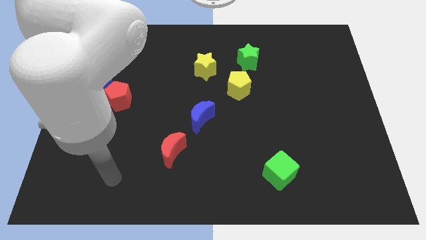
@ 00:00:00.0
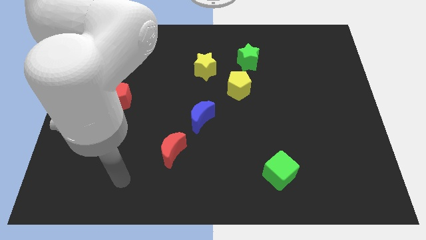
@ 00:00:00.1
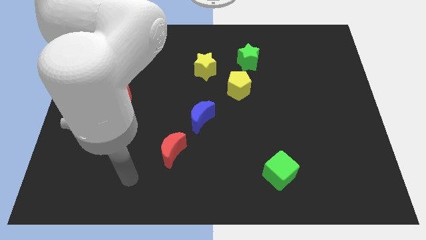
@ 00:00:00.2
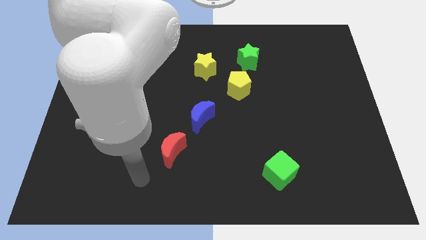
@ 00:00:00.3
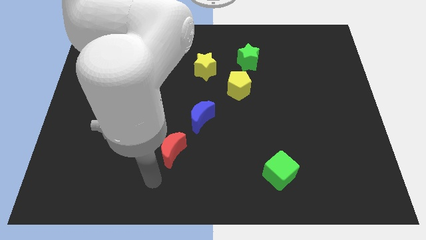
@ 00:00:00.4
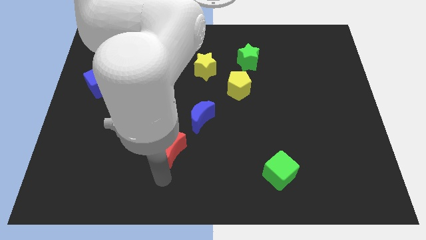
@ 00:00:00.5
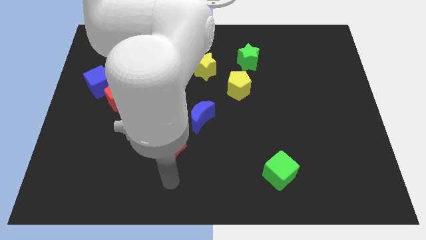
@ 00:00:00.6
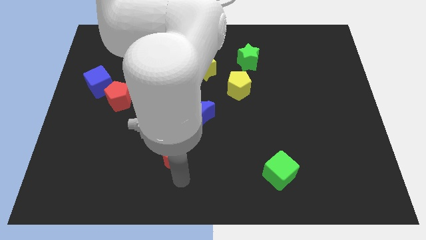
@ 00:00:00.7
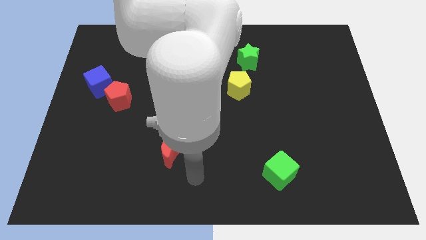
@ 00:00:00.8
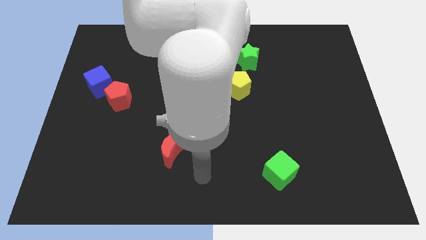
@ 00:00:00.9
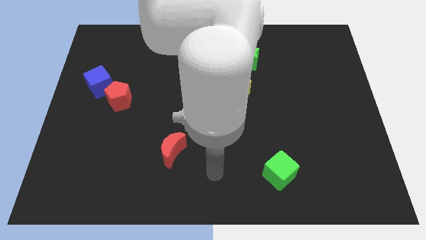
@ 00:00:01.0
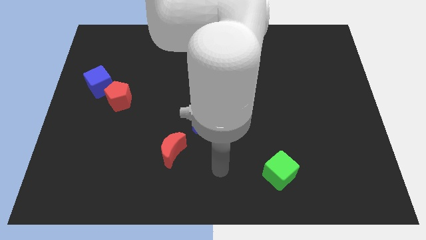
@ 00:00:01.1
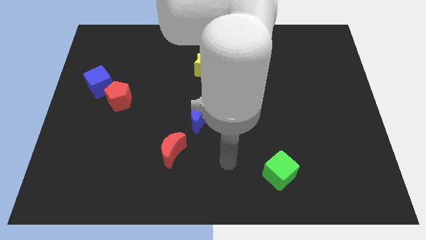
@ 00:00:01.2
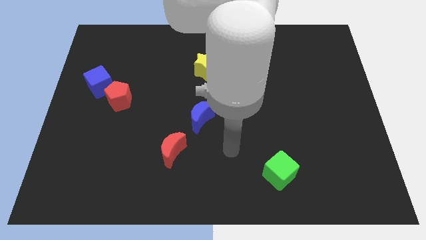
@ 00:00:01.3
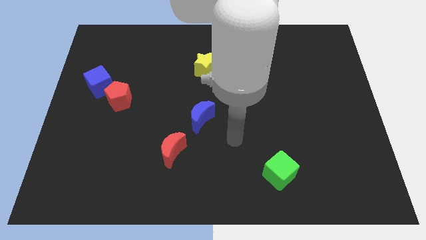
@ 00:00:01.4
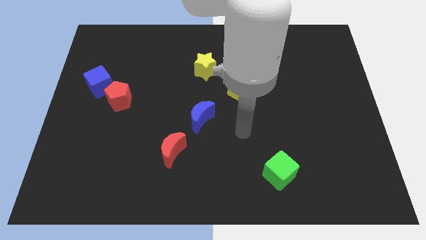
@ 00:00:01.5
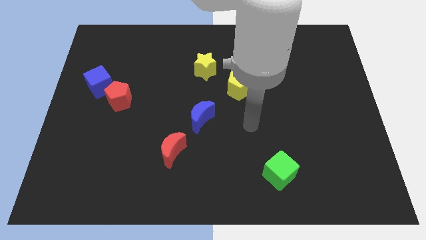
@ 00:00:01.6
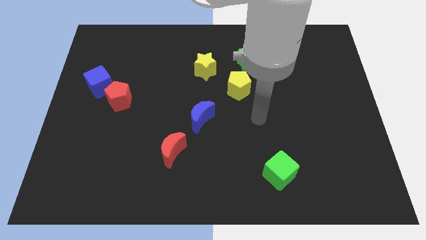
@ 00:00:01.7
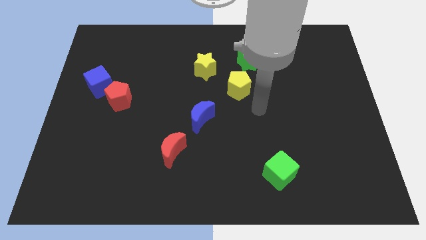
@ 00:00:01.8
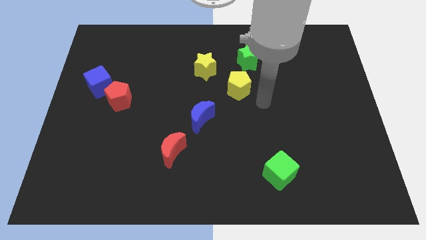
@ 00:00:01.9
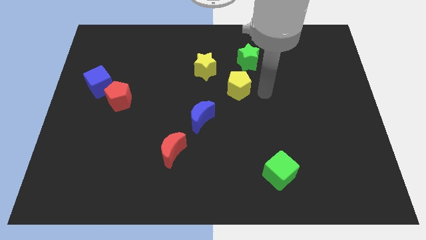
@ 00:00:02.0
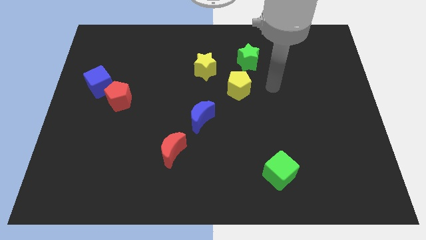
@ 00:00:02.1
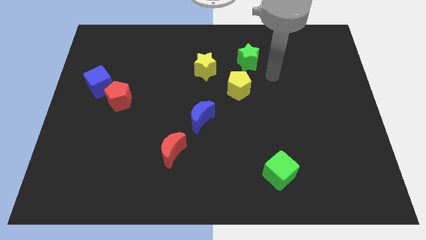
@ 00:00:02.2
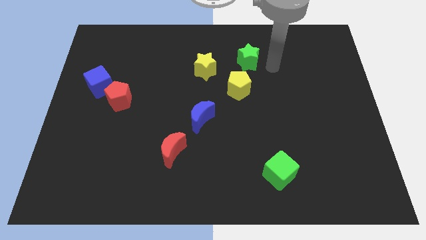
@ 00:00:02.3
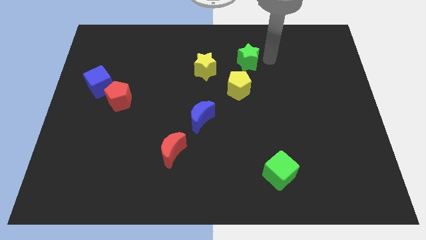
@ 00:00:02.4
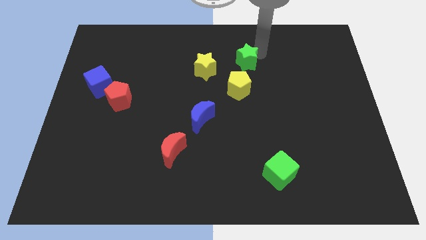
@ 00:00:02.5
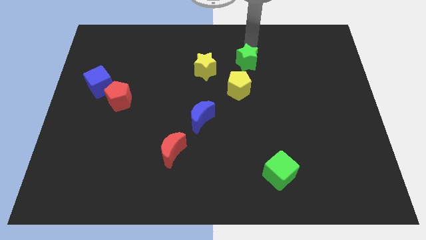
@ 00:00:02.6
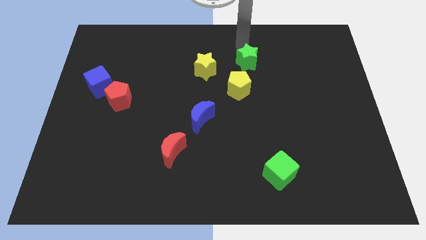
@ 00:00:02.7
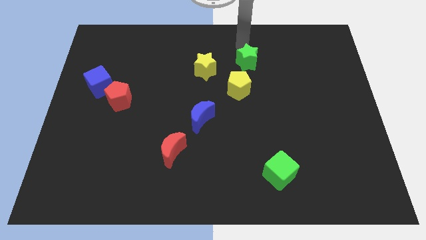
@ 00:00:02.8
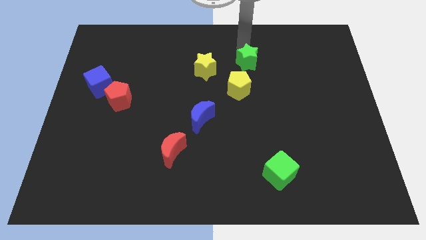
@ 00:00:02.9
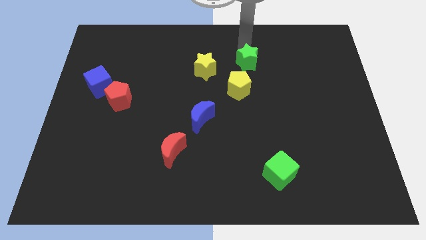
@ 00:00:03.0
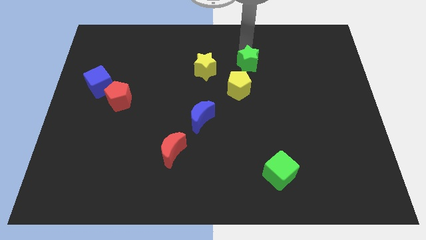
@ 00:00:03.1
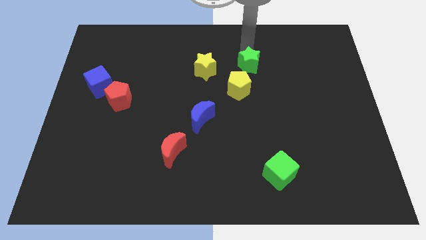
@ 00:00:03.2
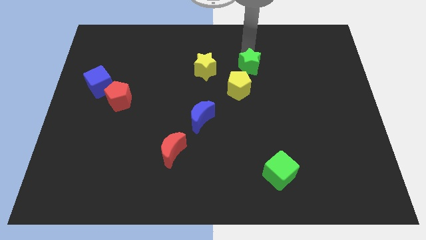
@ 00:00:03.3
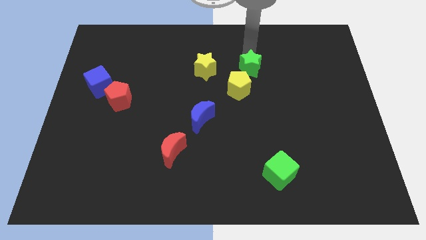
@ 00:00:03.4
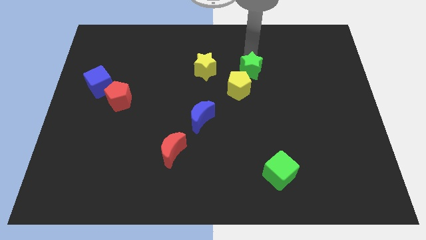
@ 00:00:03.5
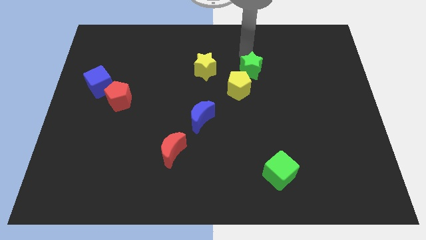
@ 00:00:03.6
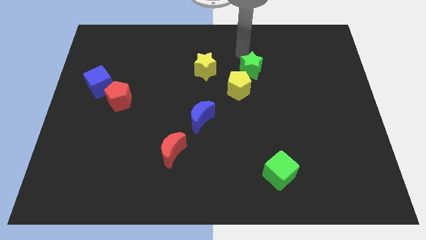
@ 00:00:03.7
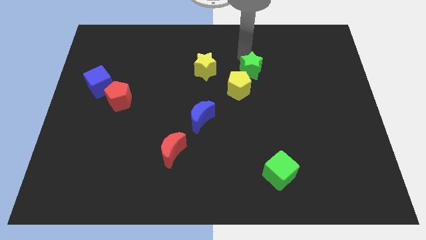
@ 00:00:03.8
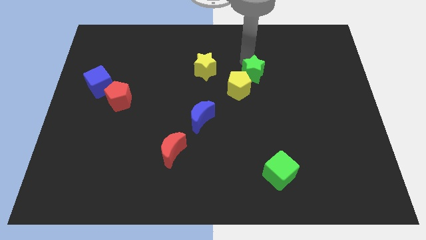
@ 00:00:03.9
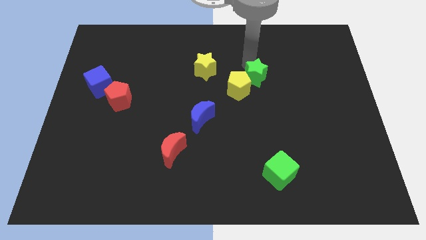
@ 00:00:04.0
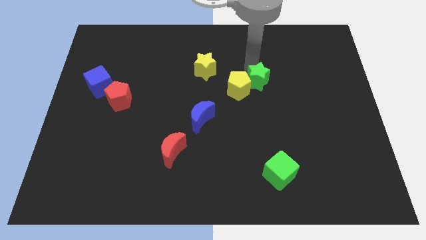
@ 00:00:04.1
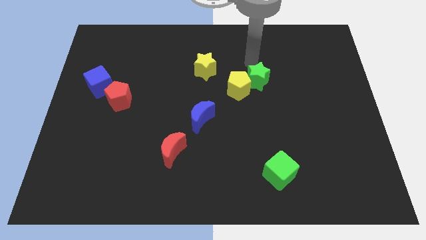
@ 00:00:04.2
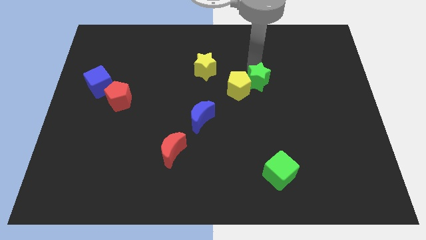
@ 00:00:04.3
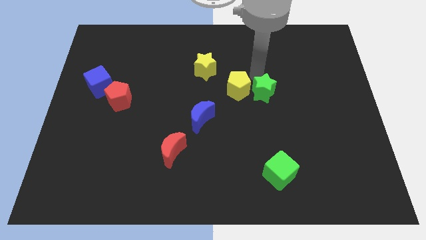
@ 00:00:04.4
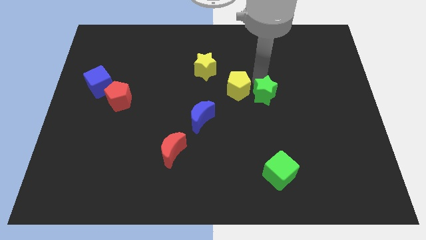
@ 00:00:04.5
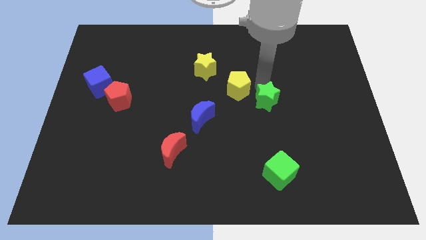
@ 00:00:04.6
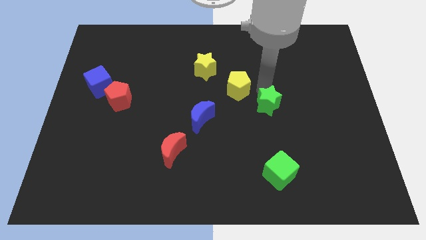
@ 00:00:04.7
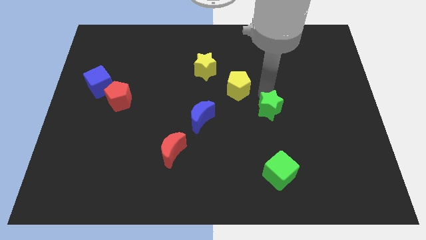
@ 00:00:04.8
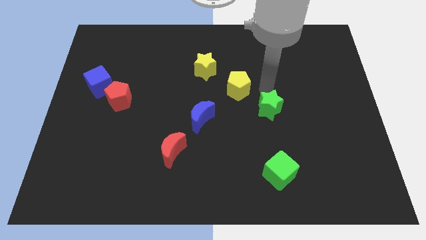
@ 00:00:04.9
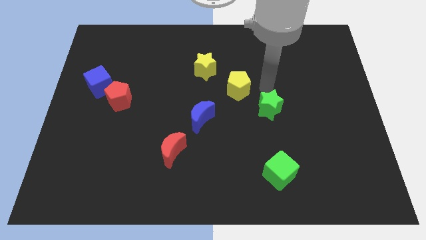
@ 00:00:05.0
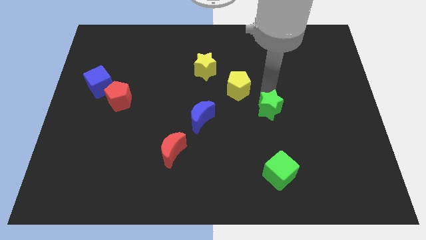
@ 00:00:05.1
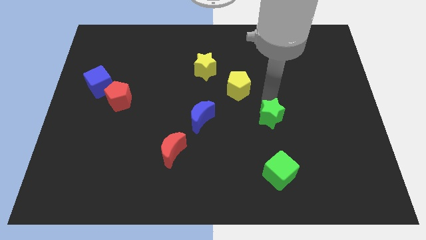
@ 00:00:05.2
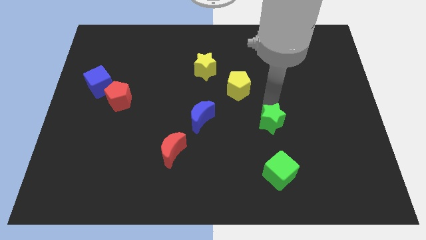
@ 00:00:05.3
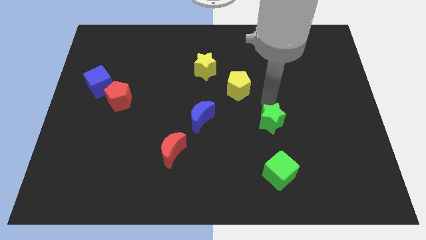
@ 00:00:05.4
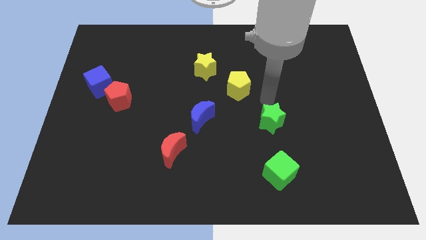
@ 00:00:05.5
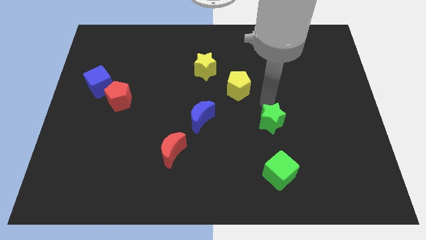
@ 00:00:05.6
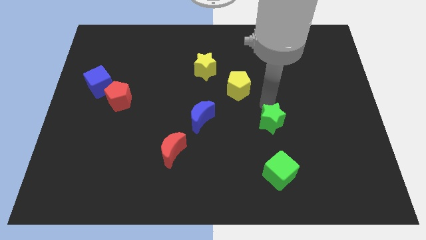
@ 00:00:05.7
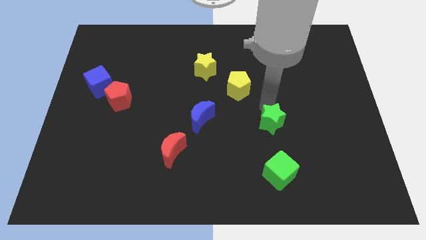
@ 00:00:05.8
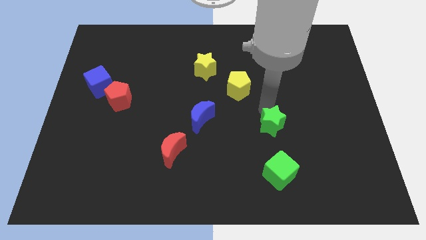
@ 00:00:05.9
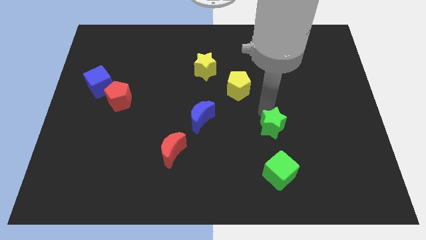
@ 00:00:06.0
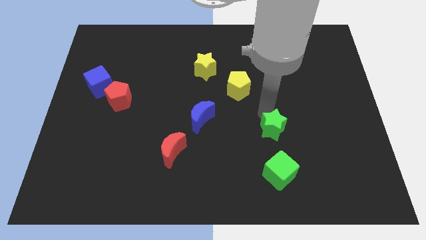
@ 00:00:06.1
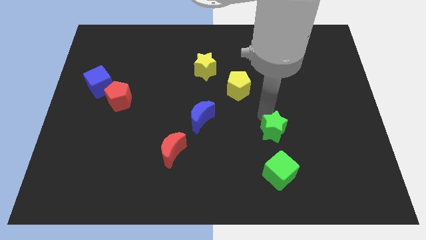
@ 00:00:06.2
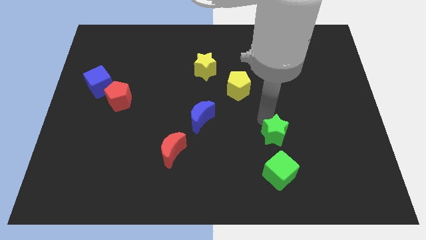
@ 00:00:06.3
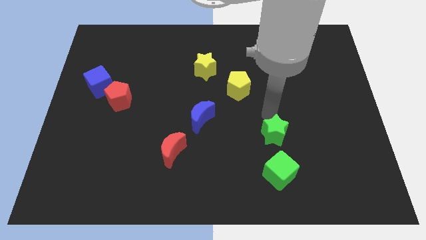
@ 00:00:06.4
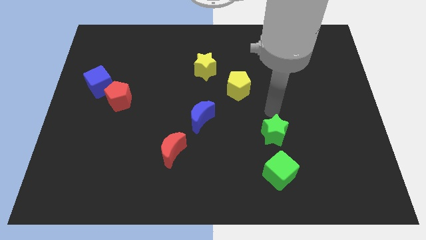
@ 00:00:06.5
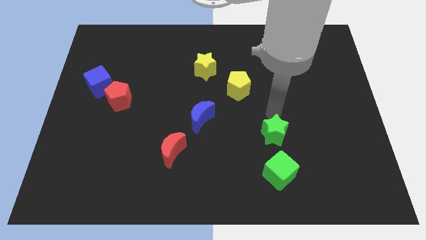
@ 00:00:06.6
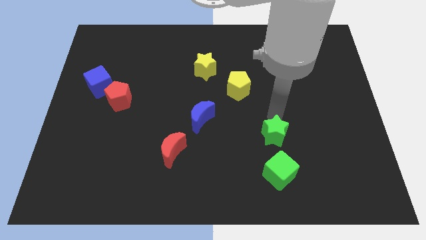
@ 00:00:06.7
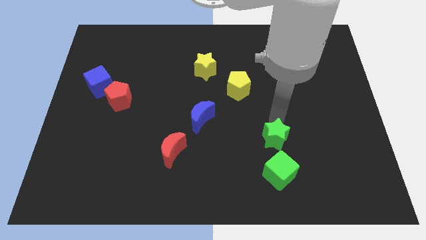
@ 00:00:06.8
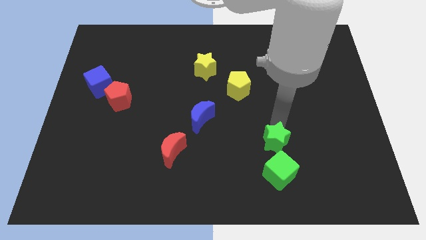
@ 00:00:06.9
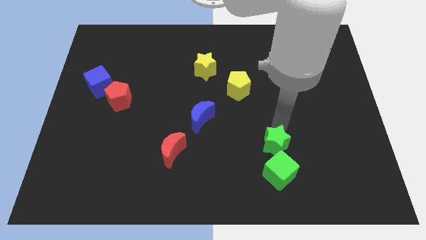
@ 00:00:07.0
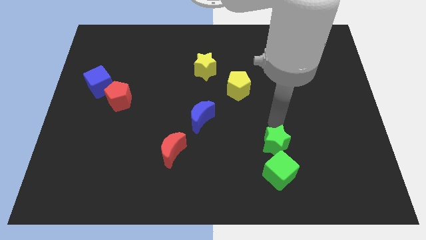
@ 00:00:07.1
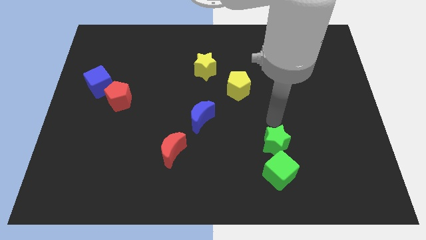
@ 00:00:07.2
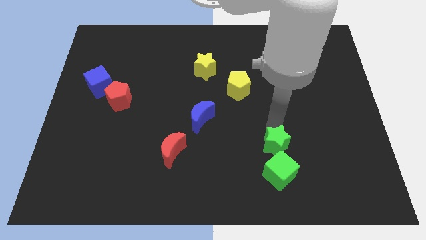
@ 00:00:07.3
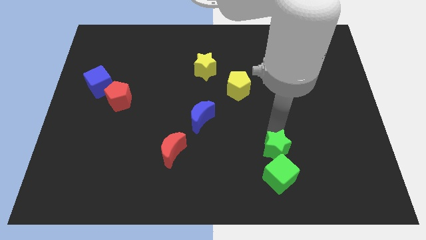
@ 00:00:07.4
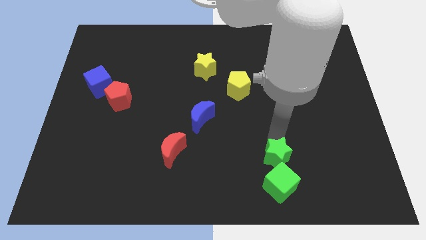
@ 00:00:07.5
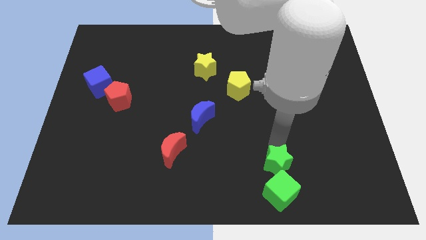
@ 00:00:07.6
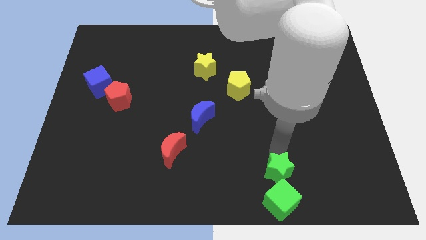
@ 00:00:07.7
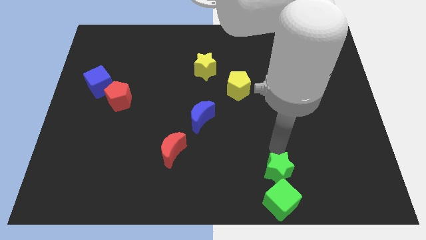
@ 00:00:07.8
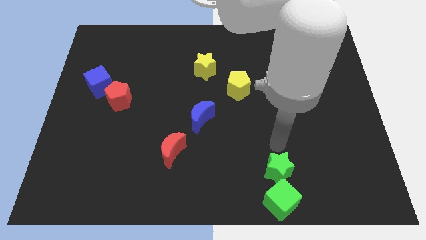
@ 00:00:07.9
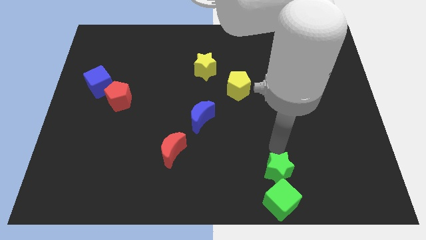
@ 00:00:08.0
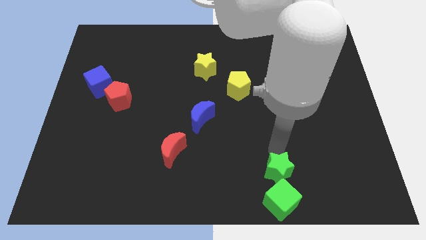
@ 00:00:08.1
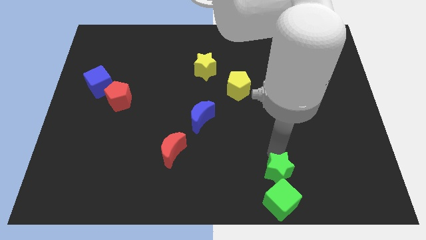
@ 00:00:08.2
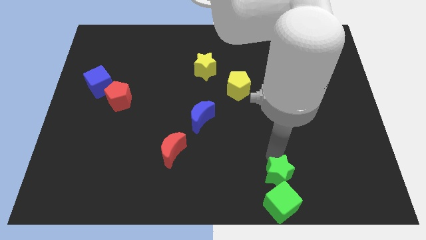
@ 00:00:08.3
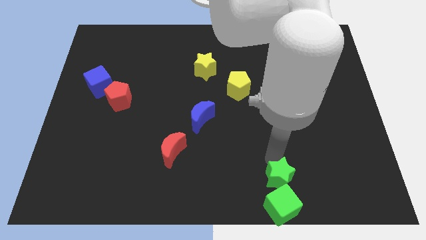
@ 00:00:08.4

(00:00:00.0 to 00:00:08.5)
put the green star to the green cube
